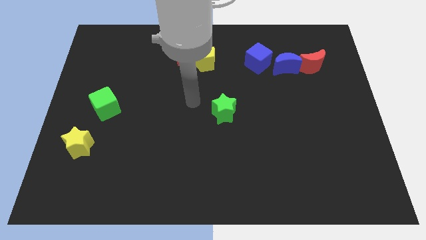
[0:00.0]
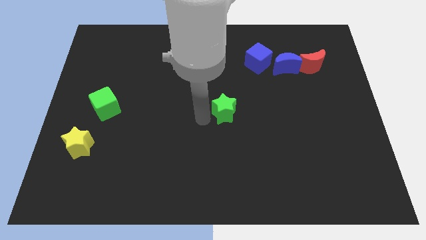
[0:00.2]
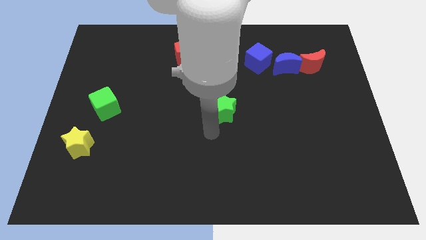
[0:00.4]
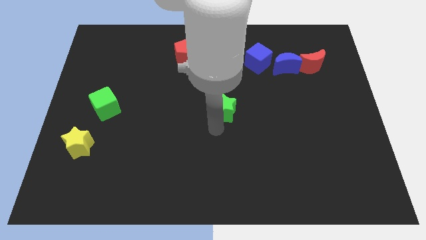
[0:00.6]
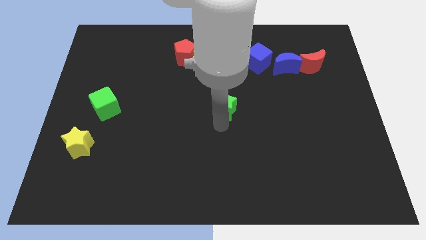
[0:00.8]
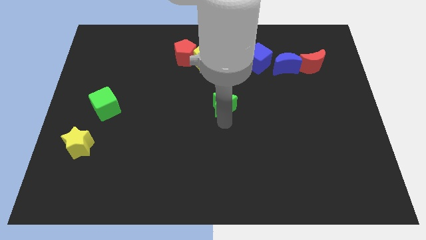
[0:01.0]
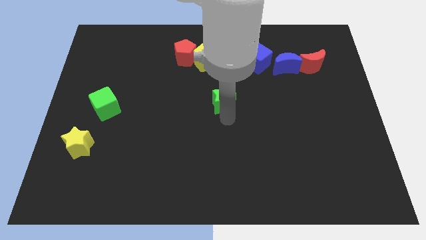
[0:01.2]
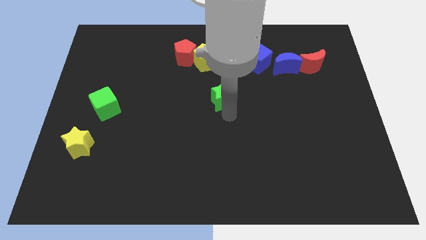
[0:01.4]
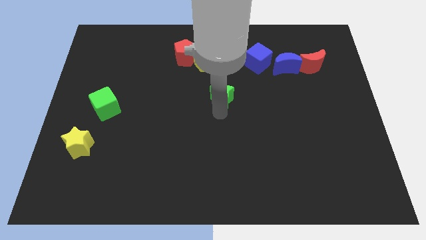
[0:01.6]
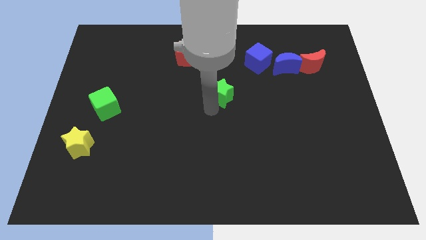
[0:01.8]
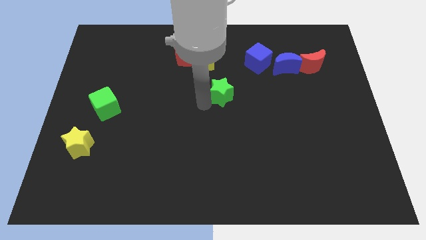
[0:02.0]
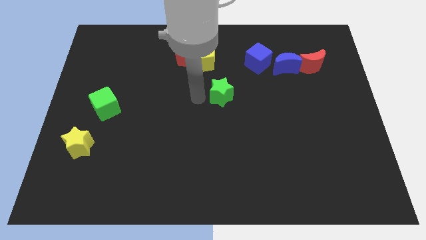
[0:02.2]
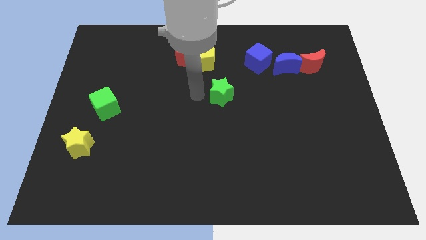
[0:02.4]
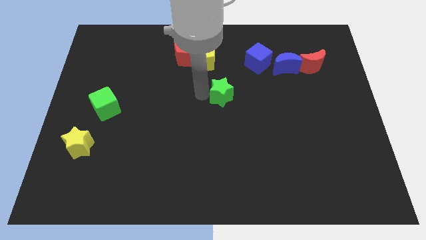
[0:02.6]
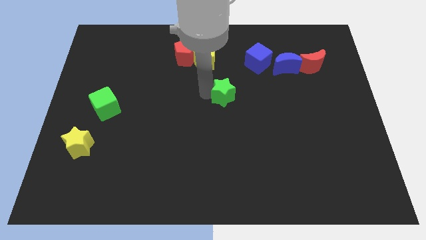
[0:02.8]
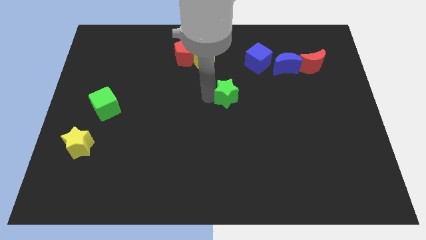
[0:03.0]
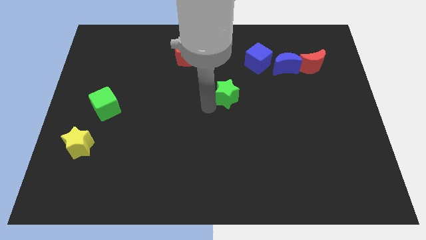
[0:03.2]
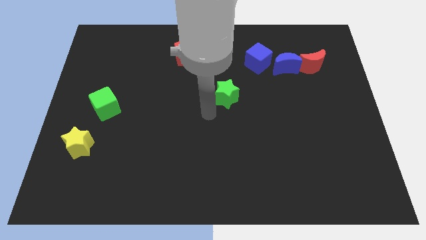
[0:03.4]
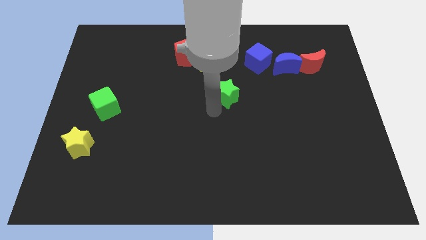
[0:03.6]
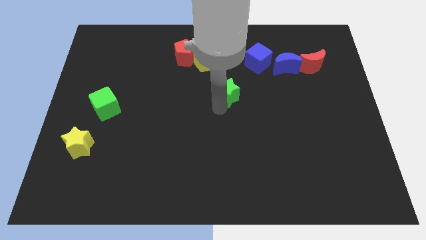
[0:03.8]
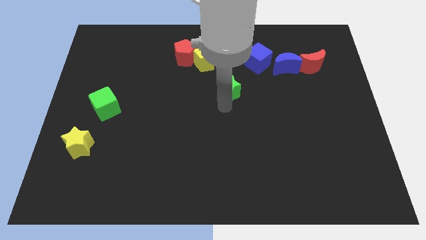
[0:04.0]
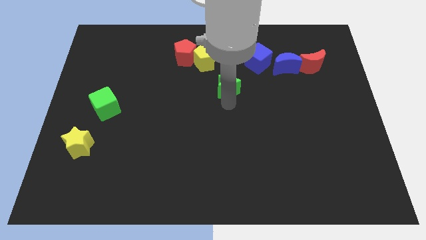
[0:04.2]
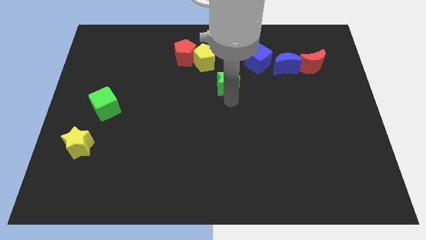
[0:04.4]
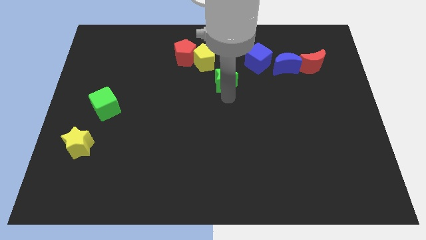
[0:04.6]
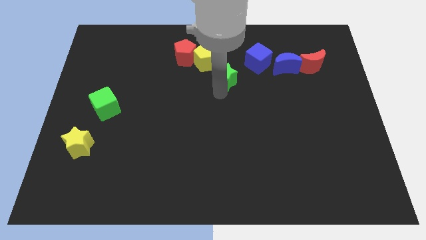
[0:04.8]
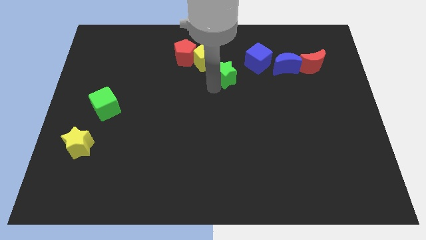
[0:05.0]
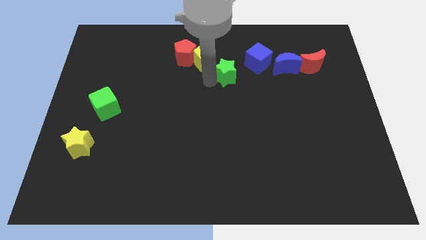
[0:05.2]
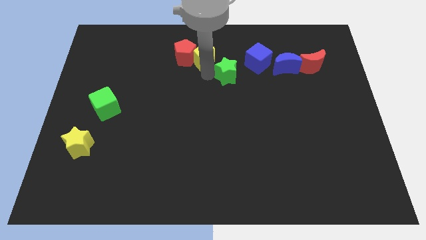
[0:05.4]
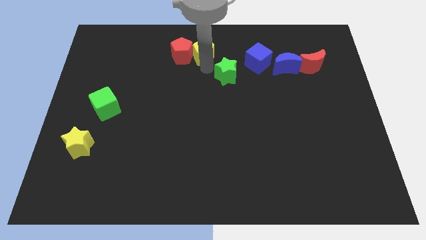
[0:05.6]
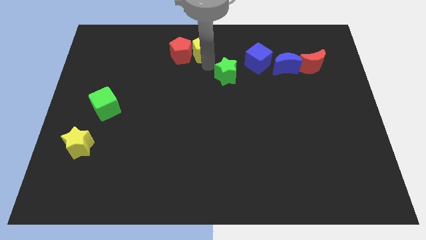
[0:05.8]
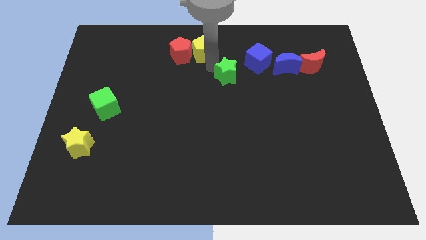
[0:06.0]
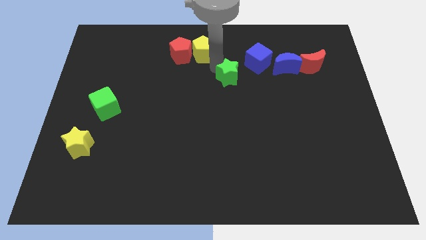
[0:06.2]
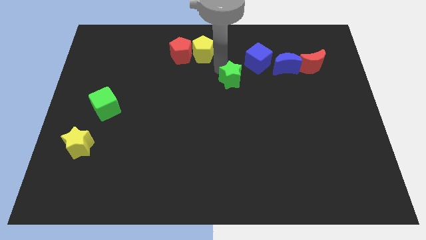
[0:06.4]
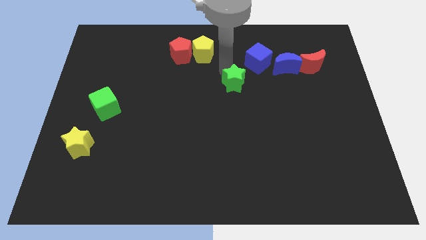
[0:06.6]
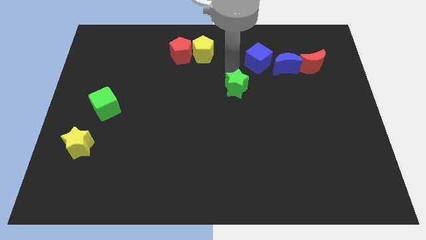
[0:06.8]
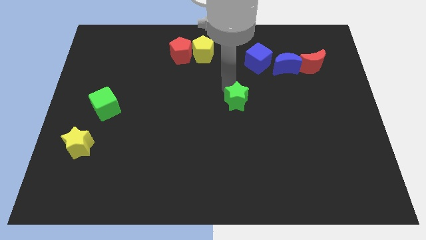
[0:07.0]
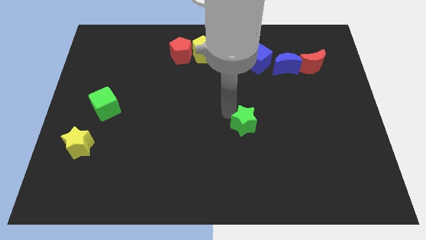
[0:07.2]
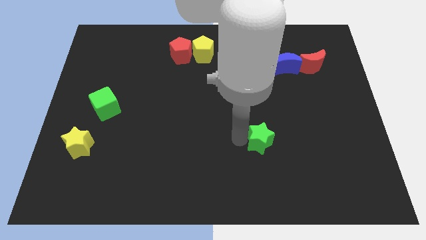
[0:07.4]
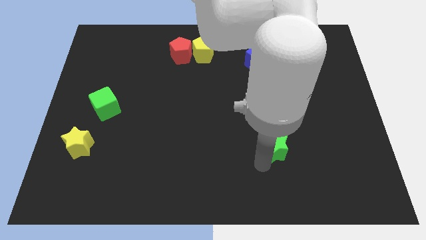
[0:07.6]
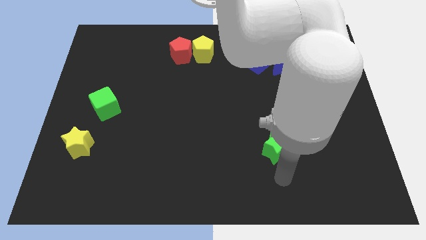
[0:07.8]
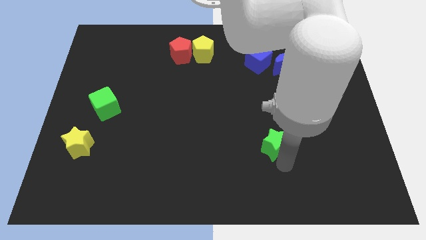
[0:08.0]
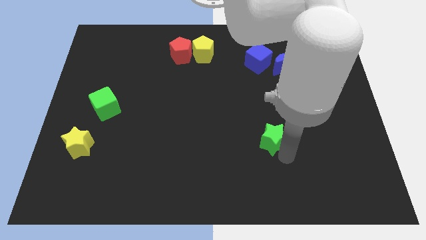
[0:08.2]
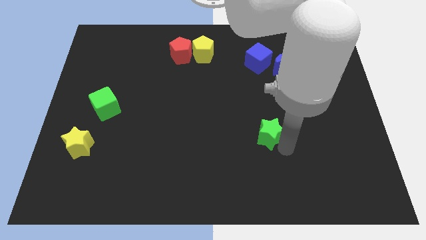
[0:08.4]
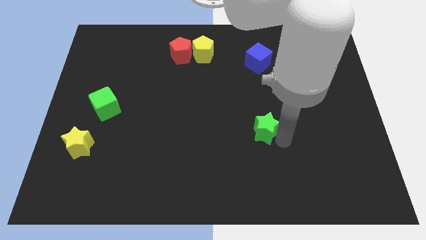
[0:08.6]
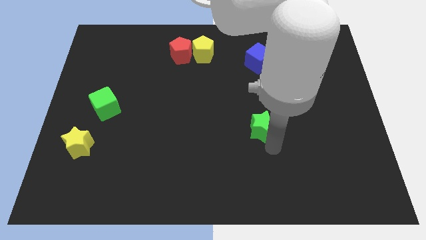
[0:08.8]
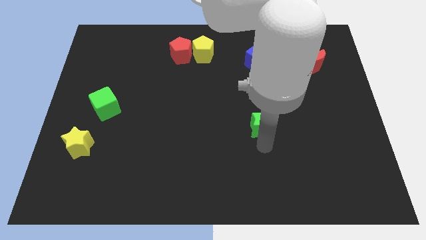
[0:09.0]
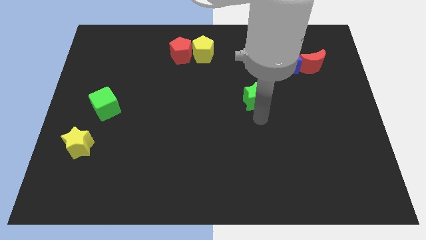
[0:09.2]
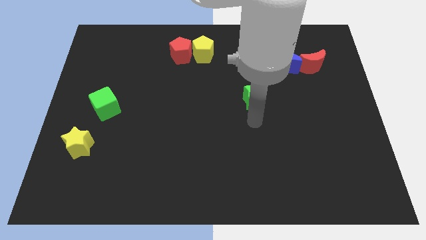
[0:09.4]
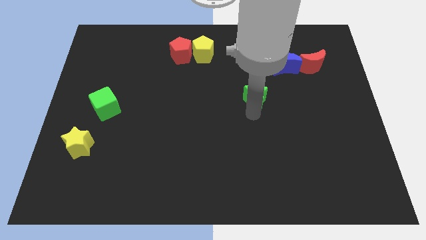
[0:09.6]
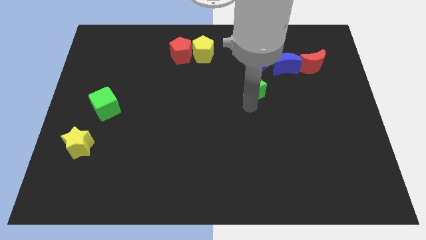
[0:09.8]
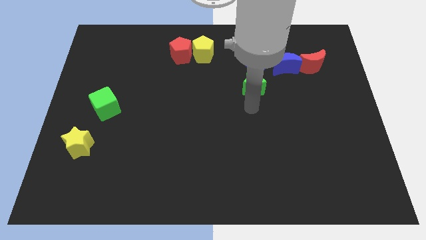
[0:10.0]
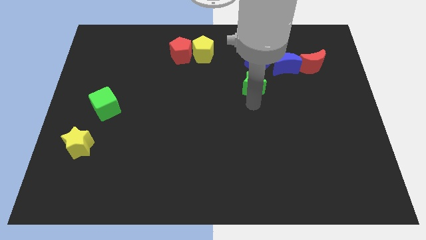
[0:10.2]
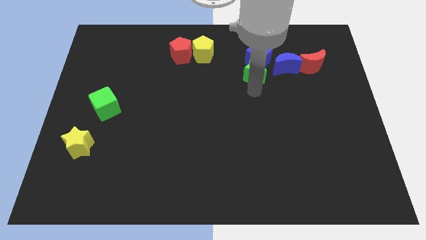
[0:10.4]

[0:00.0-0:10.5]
put the green star close to the blue cube

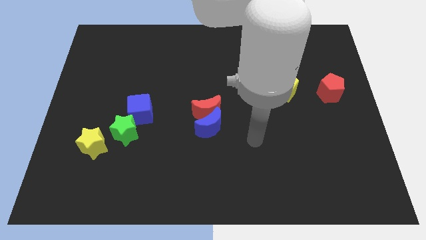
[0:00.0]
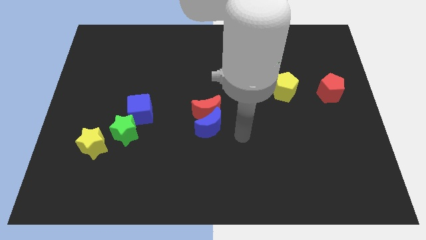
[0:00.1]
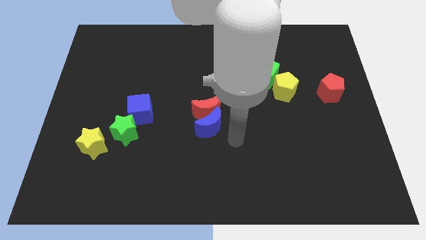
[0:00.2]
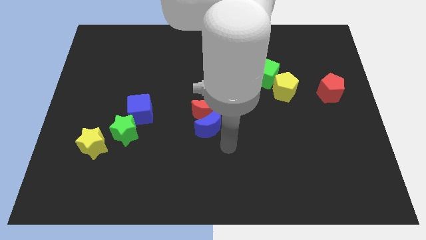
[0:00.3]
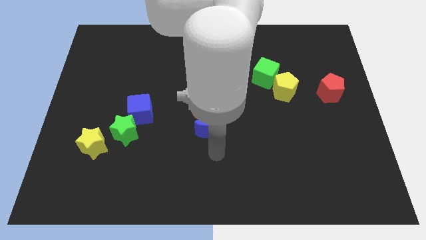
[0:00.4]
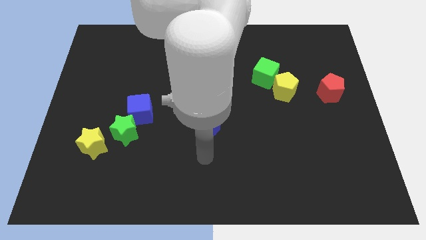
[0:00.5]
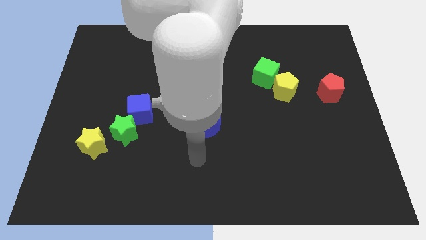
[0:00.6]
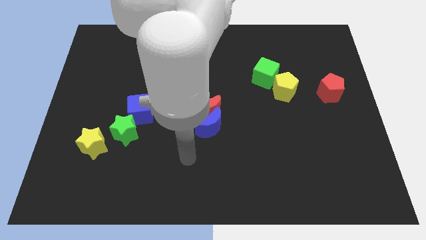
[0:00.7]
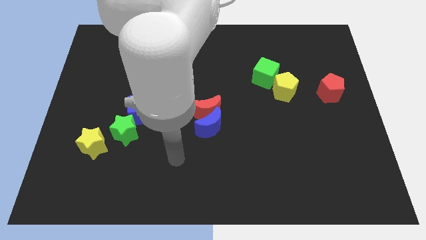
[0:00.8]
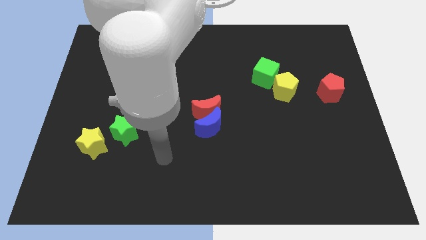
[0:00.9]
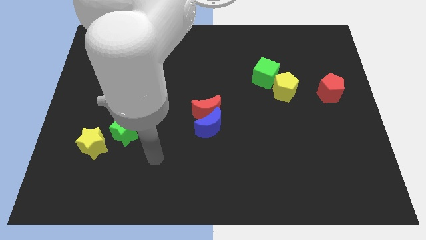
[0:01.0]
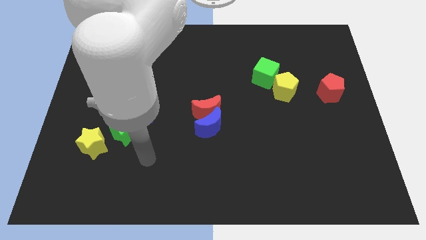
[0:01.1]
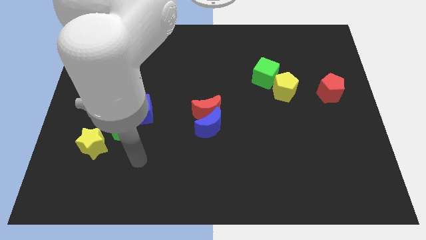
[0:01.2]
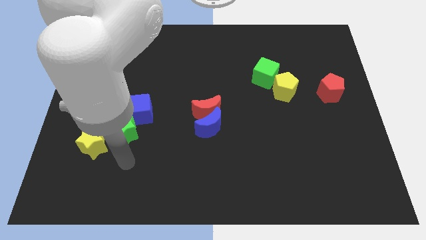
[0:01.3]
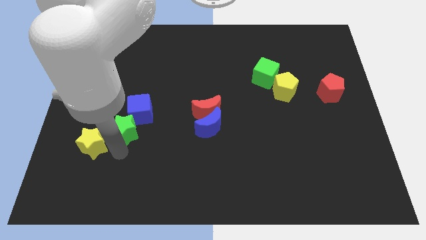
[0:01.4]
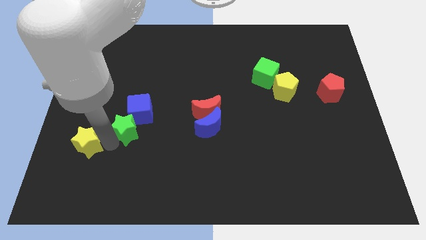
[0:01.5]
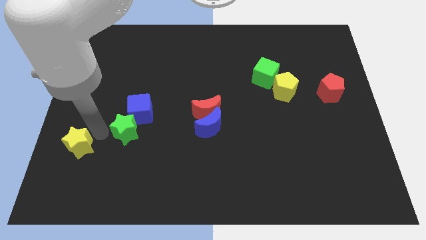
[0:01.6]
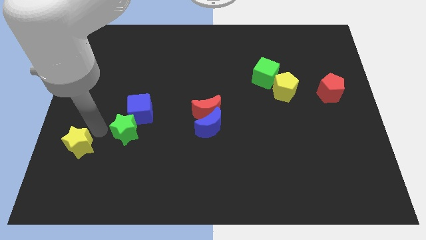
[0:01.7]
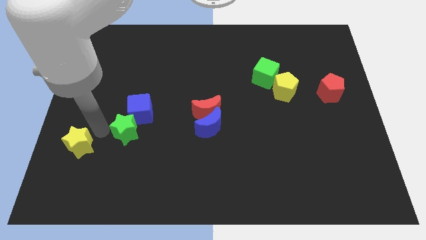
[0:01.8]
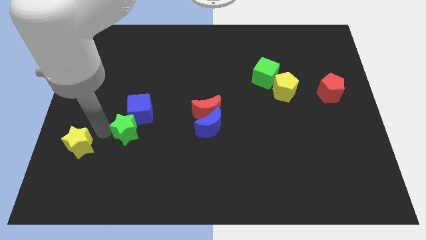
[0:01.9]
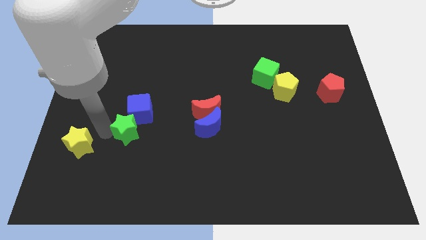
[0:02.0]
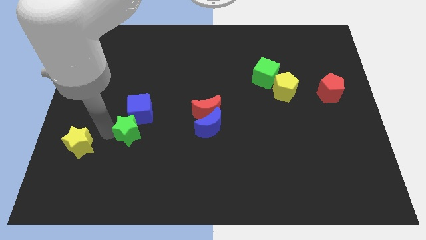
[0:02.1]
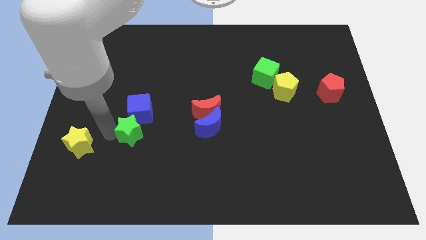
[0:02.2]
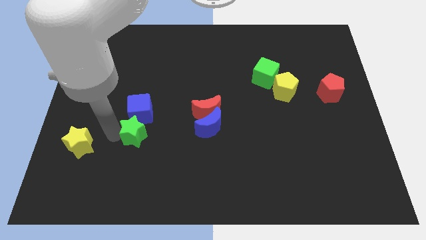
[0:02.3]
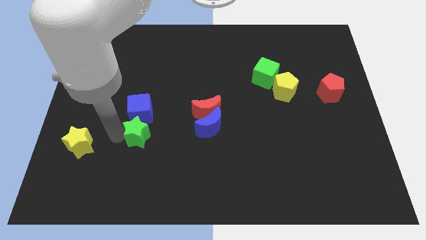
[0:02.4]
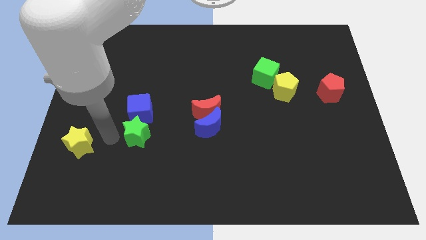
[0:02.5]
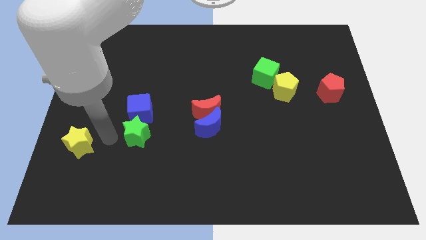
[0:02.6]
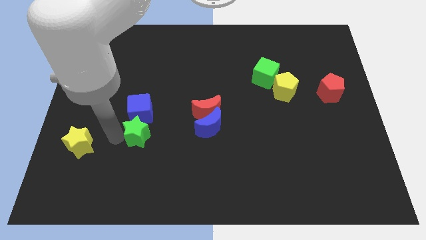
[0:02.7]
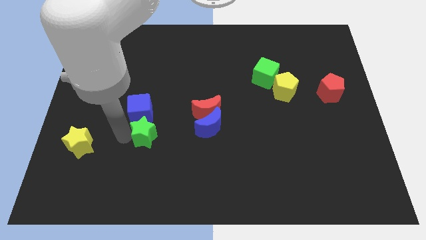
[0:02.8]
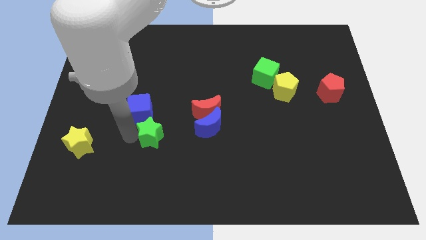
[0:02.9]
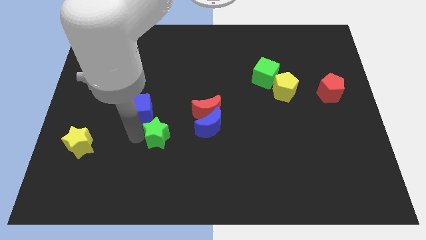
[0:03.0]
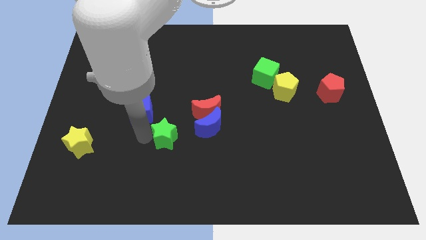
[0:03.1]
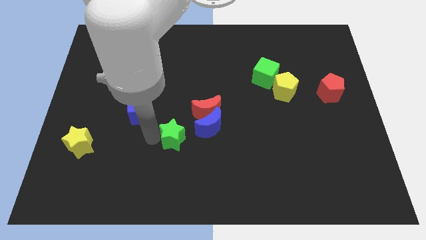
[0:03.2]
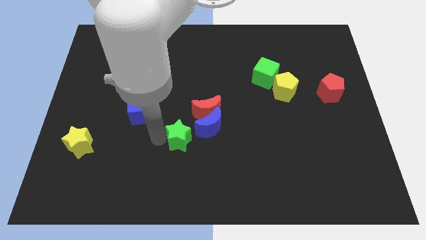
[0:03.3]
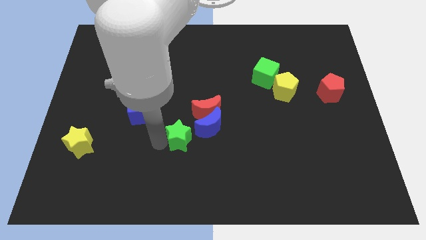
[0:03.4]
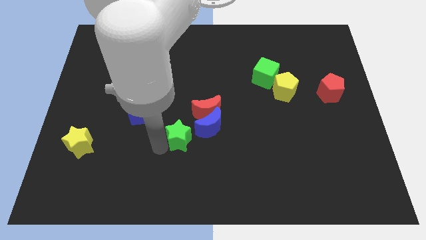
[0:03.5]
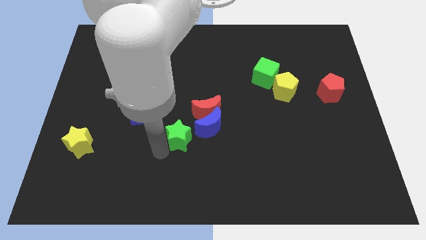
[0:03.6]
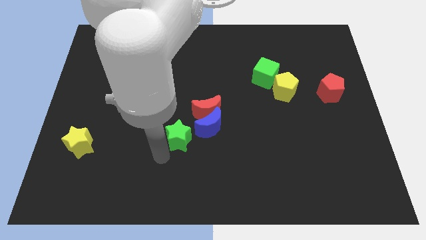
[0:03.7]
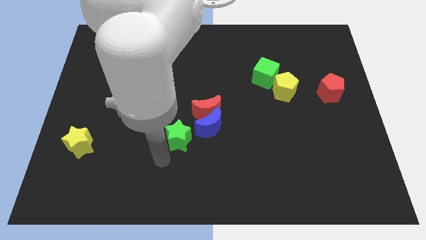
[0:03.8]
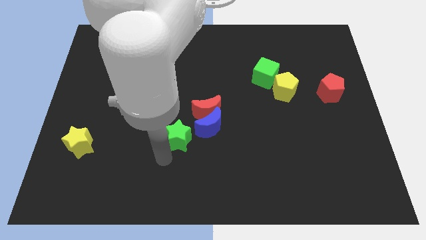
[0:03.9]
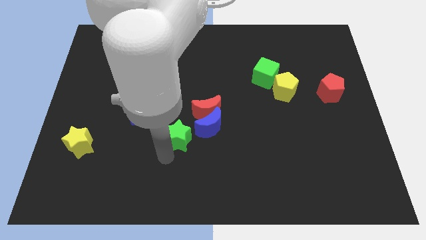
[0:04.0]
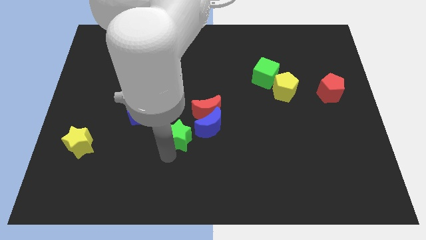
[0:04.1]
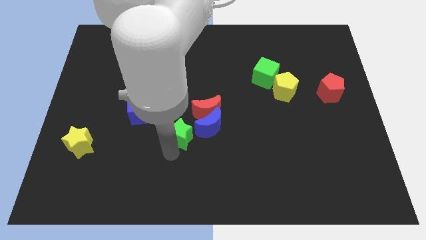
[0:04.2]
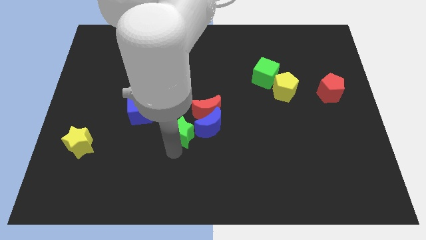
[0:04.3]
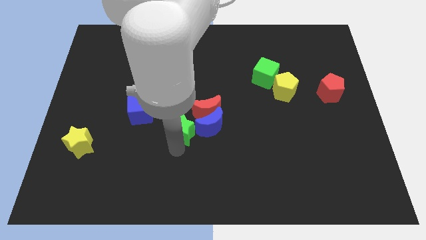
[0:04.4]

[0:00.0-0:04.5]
slide the green star towards the blue moon
